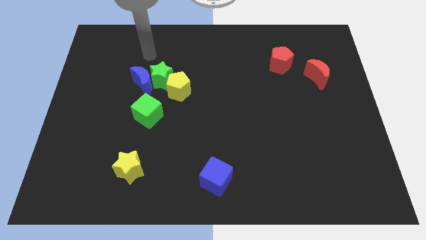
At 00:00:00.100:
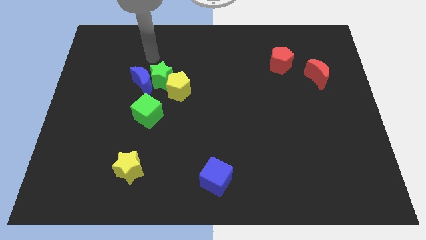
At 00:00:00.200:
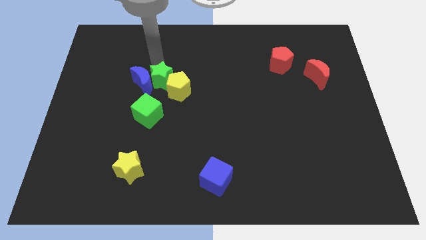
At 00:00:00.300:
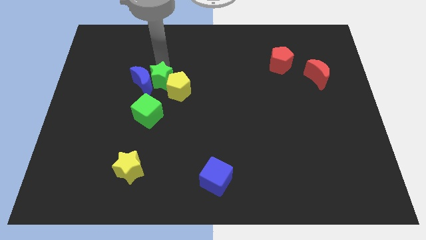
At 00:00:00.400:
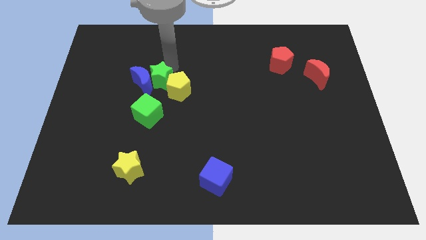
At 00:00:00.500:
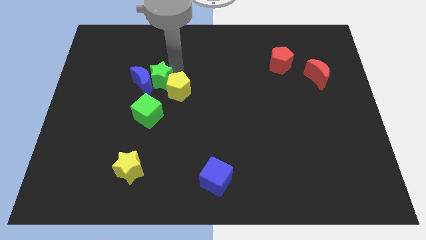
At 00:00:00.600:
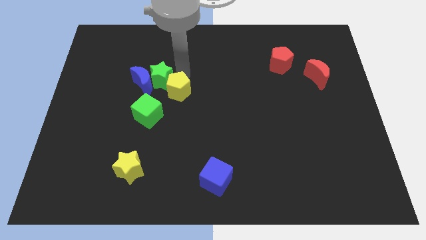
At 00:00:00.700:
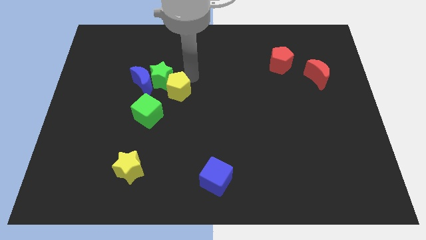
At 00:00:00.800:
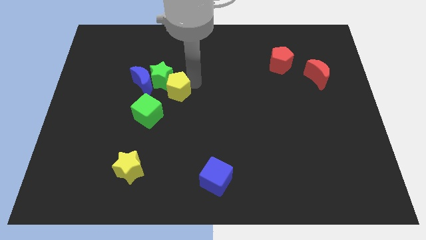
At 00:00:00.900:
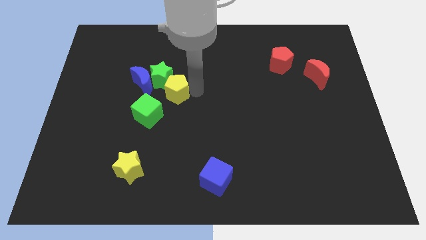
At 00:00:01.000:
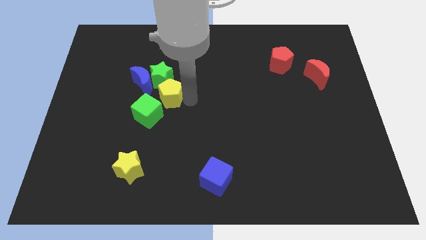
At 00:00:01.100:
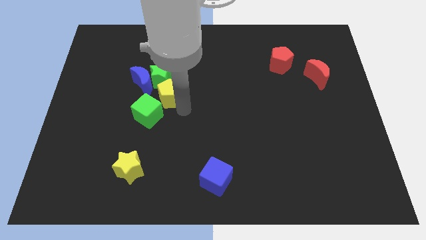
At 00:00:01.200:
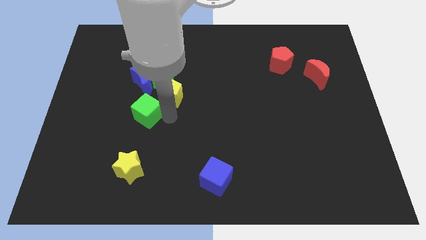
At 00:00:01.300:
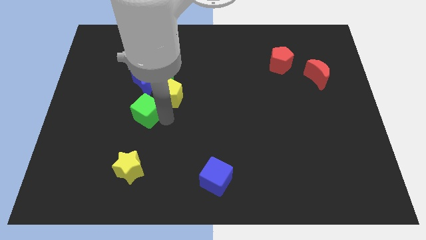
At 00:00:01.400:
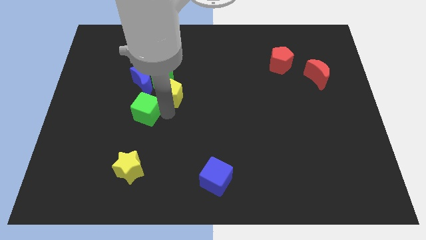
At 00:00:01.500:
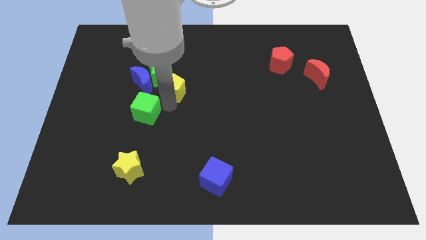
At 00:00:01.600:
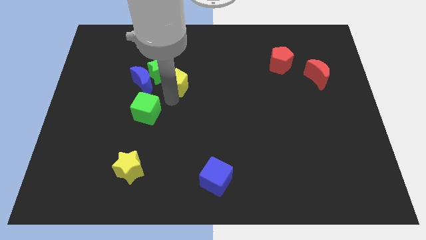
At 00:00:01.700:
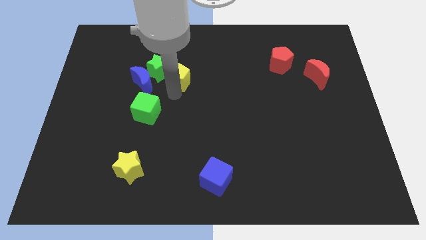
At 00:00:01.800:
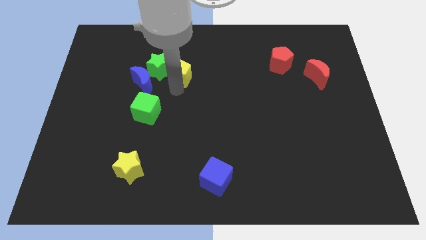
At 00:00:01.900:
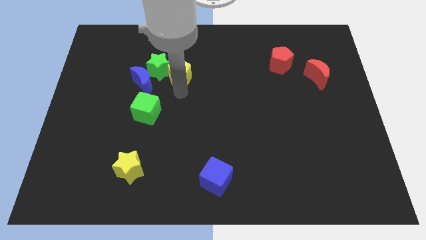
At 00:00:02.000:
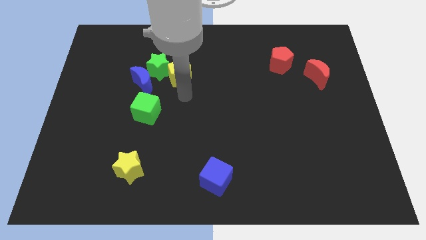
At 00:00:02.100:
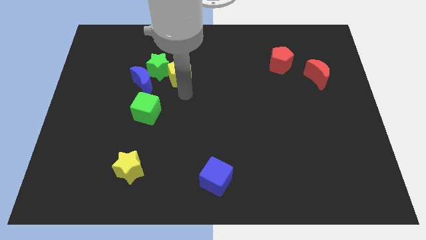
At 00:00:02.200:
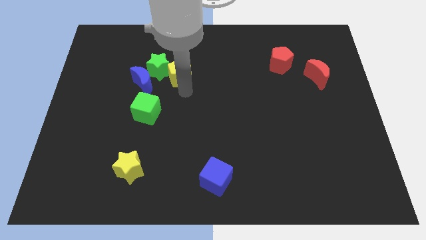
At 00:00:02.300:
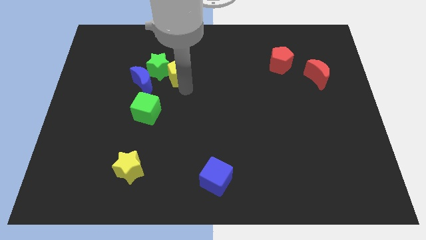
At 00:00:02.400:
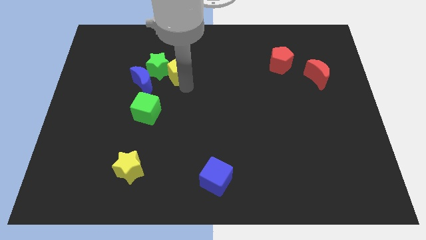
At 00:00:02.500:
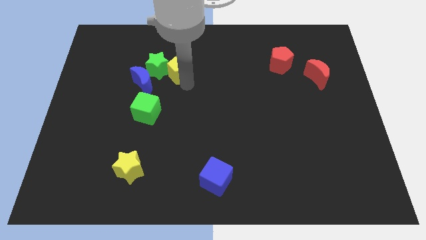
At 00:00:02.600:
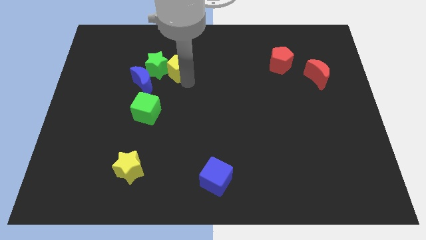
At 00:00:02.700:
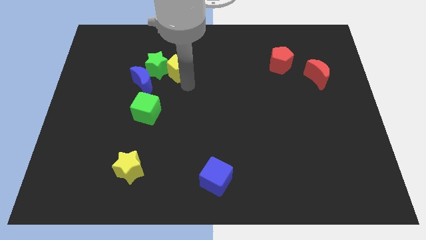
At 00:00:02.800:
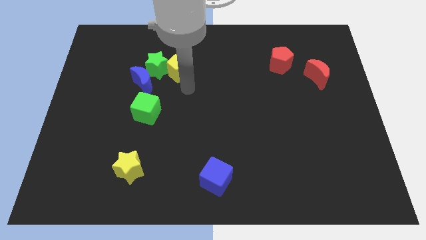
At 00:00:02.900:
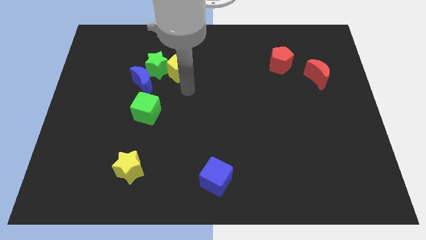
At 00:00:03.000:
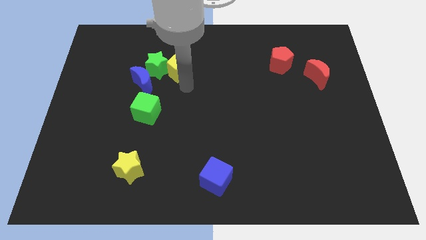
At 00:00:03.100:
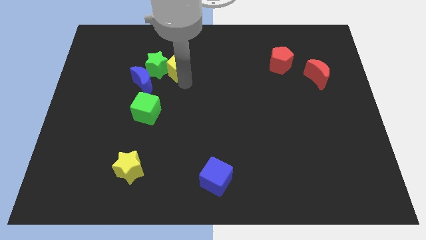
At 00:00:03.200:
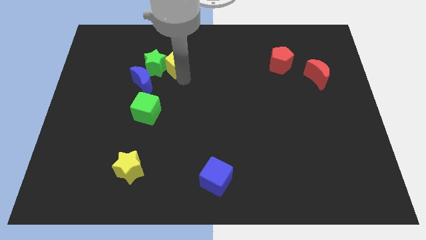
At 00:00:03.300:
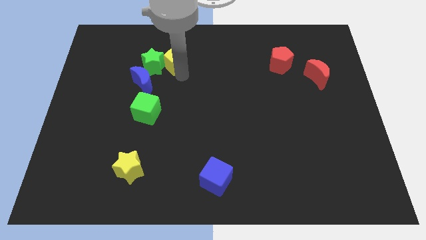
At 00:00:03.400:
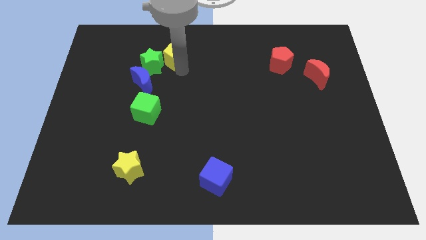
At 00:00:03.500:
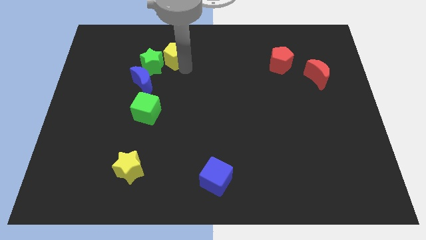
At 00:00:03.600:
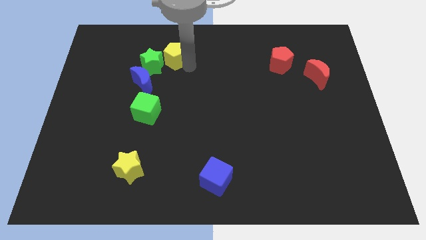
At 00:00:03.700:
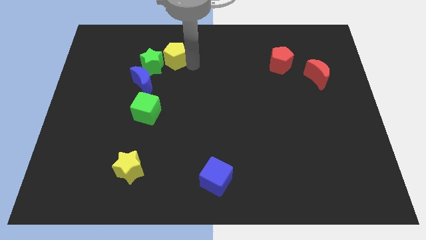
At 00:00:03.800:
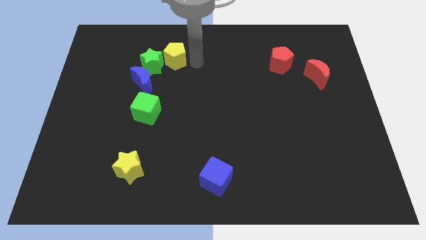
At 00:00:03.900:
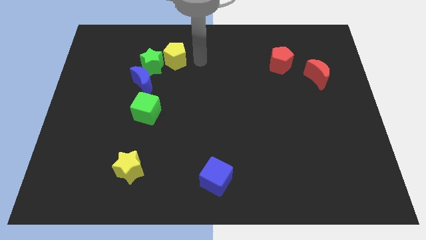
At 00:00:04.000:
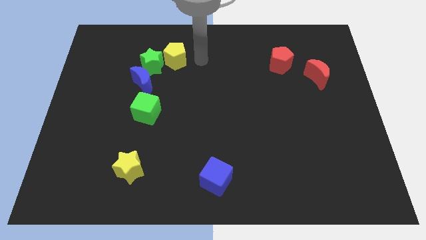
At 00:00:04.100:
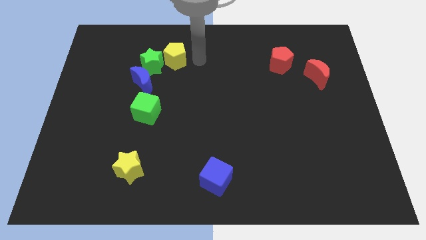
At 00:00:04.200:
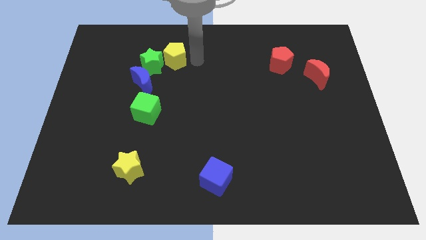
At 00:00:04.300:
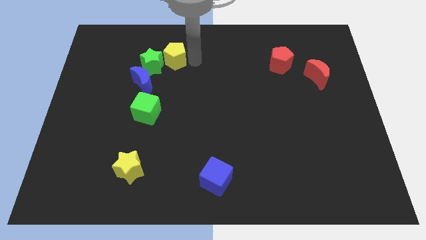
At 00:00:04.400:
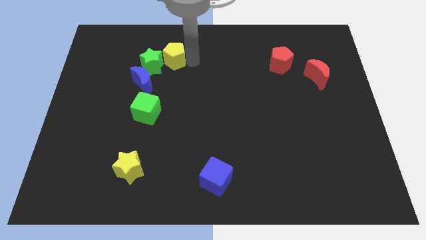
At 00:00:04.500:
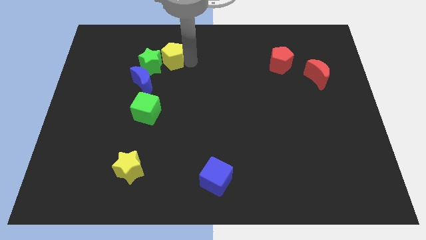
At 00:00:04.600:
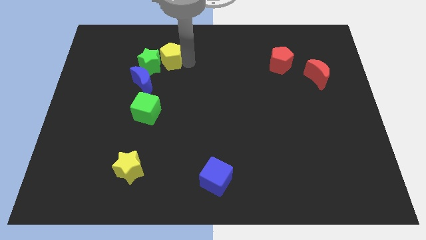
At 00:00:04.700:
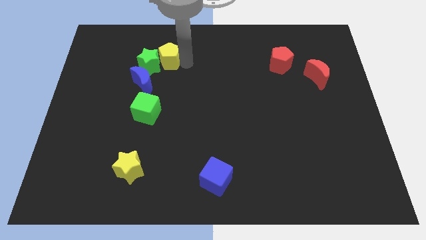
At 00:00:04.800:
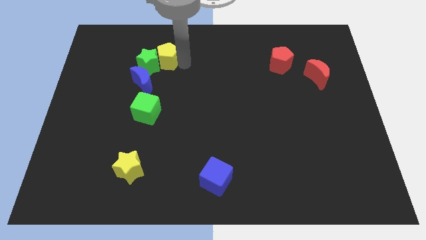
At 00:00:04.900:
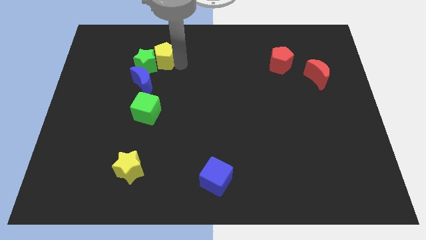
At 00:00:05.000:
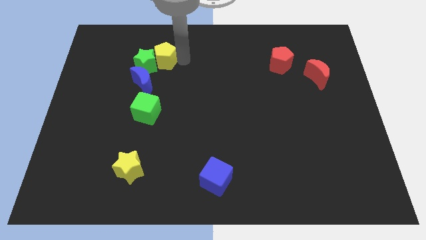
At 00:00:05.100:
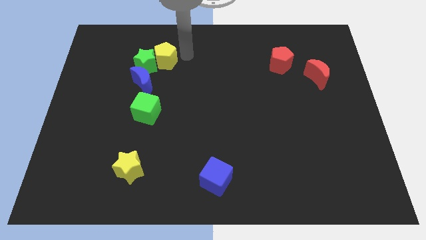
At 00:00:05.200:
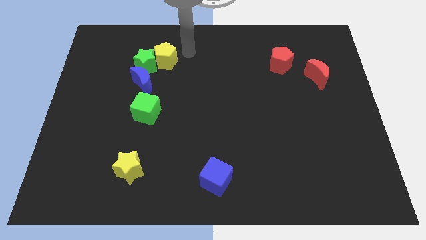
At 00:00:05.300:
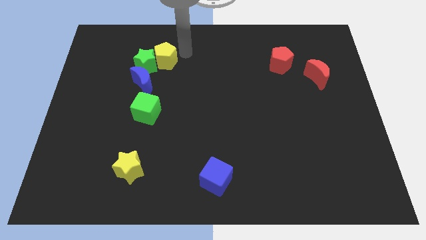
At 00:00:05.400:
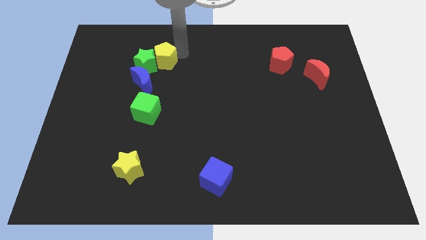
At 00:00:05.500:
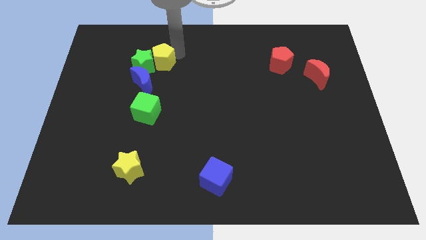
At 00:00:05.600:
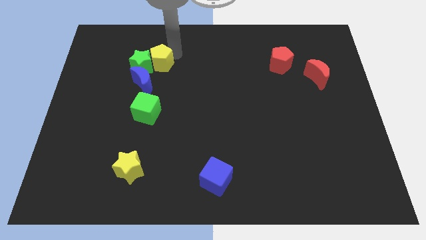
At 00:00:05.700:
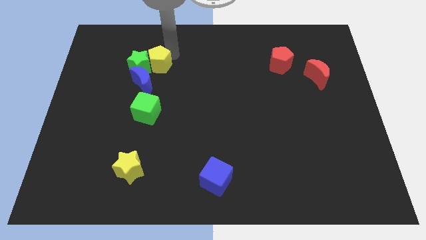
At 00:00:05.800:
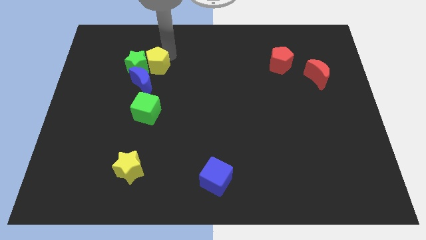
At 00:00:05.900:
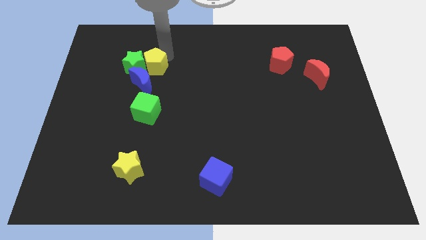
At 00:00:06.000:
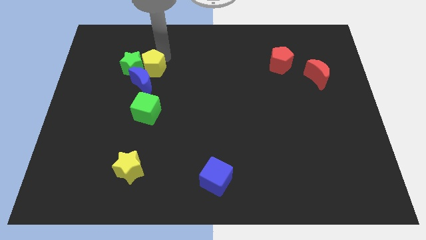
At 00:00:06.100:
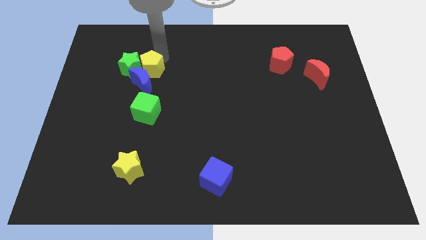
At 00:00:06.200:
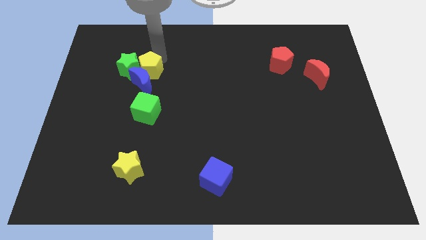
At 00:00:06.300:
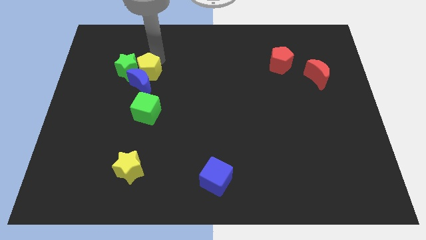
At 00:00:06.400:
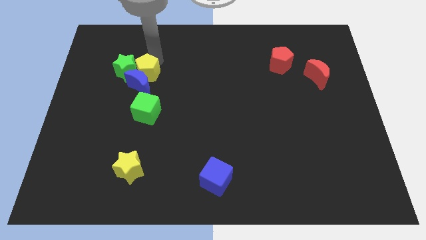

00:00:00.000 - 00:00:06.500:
slightly push the yellow pentagon to the left

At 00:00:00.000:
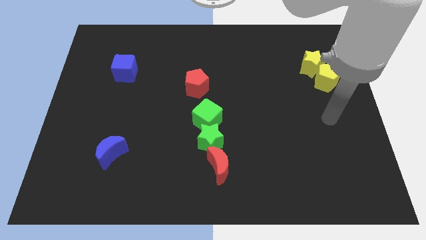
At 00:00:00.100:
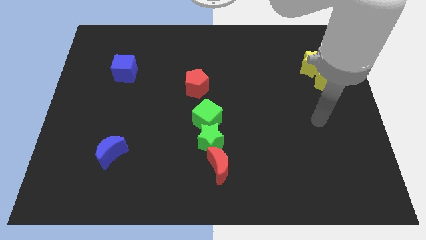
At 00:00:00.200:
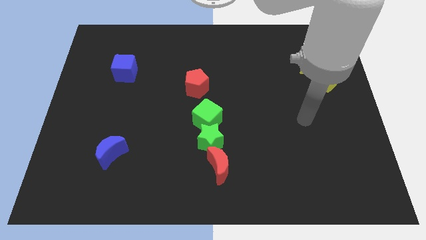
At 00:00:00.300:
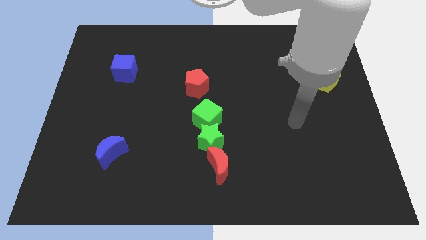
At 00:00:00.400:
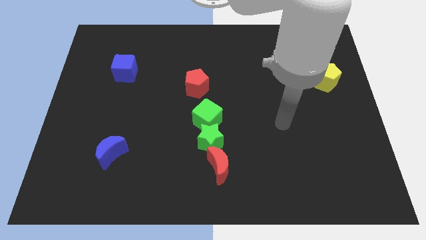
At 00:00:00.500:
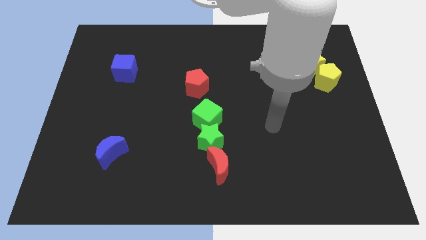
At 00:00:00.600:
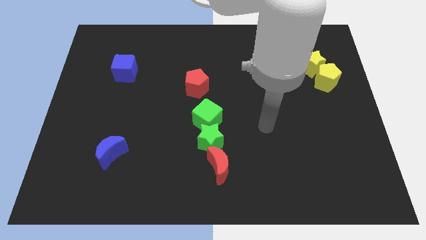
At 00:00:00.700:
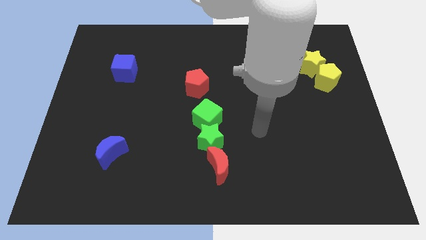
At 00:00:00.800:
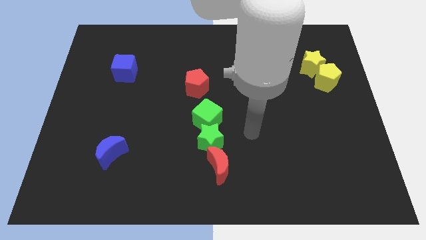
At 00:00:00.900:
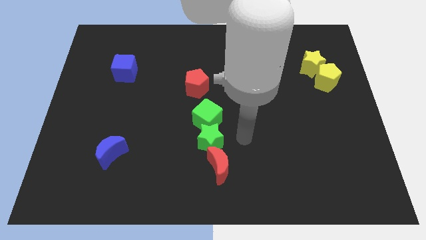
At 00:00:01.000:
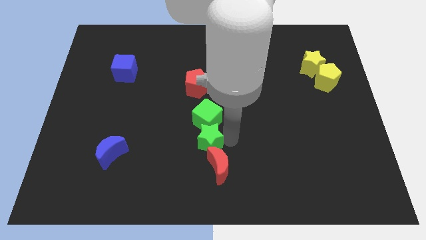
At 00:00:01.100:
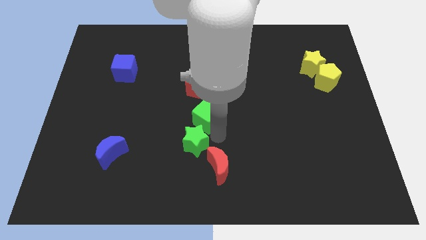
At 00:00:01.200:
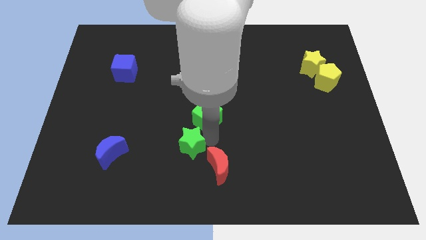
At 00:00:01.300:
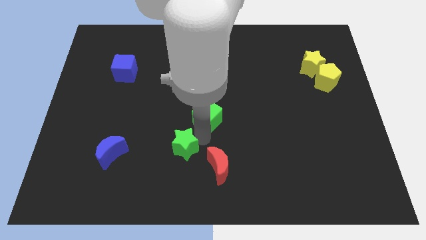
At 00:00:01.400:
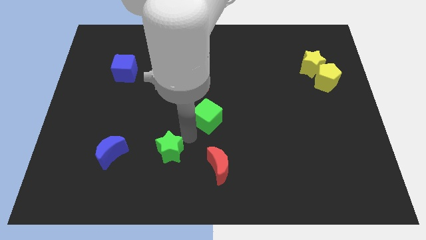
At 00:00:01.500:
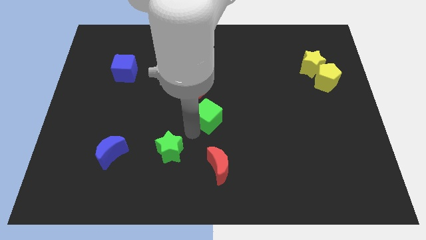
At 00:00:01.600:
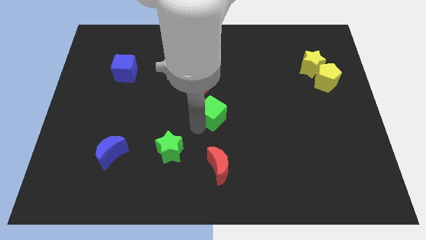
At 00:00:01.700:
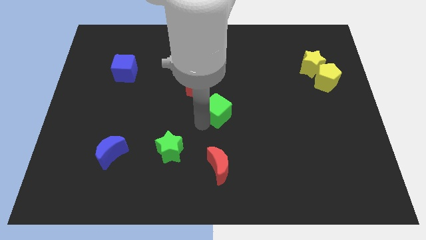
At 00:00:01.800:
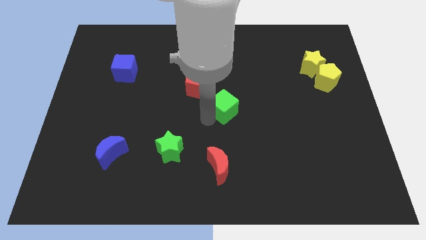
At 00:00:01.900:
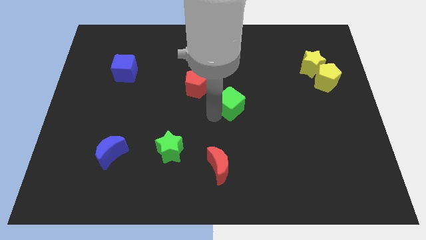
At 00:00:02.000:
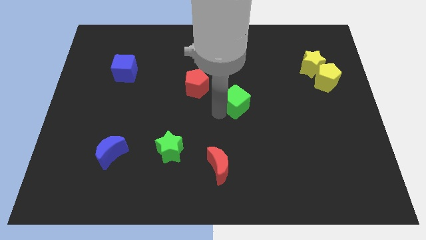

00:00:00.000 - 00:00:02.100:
move the green cube up and to the right diagonally a little
